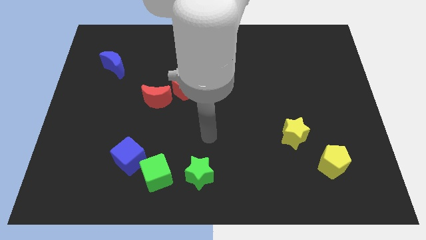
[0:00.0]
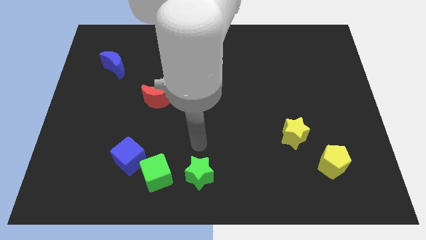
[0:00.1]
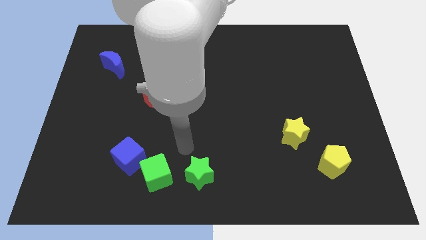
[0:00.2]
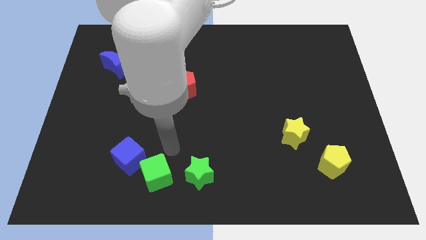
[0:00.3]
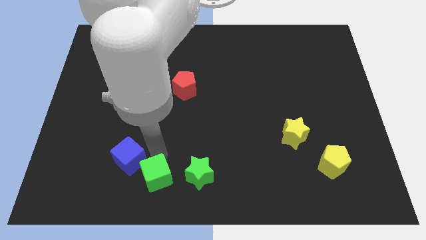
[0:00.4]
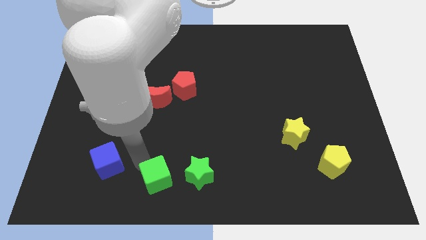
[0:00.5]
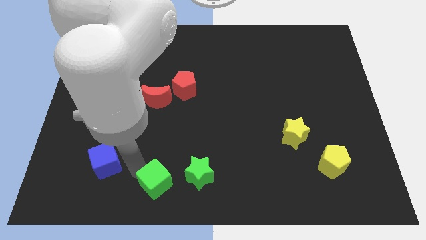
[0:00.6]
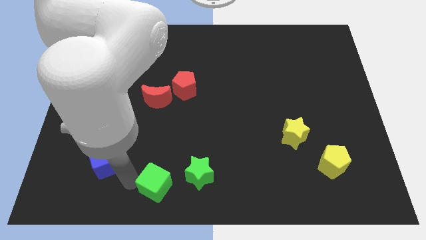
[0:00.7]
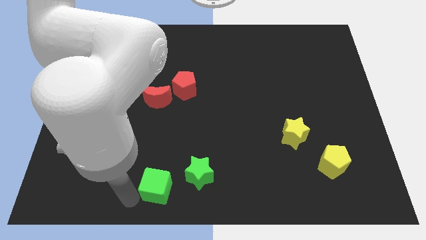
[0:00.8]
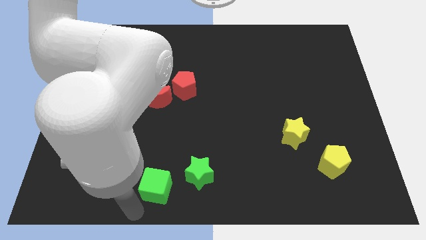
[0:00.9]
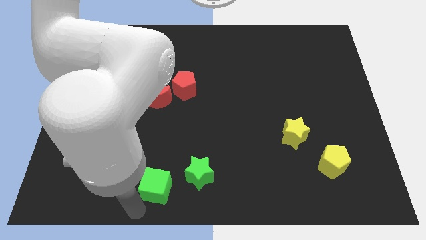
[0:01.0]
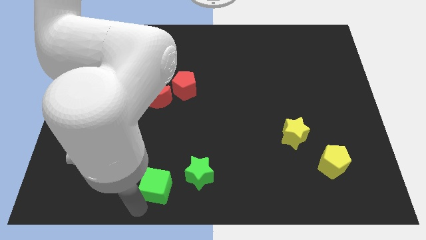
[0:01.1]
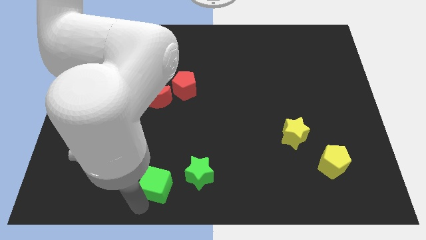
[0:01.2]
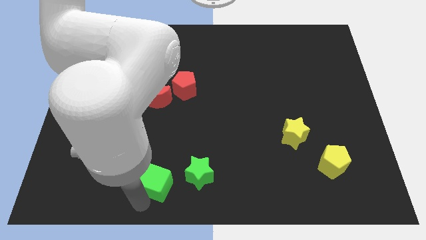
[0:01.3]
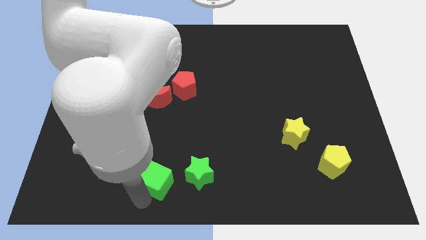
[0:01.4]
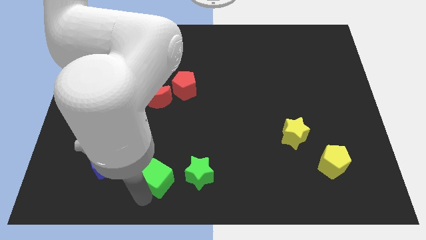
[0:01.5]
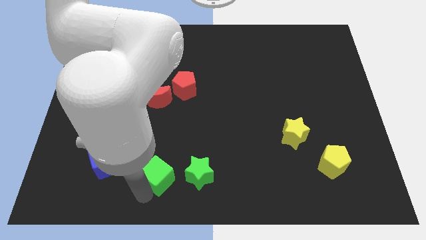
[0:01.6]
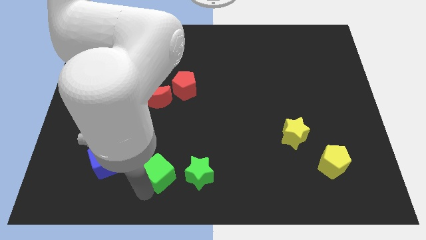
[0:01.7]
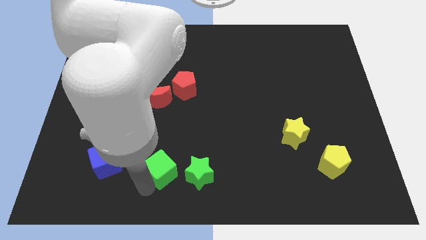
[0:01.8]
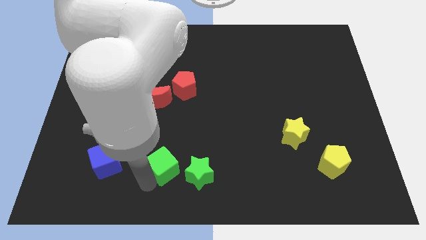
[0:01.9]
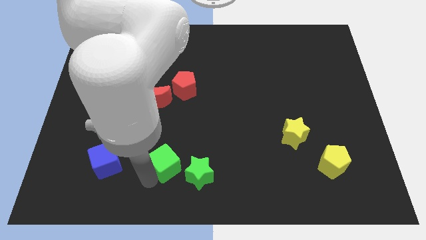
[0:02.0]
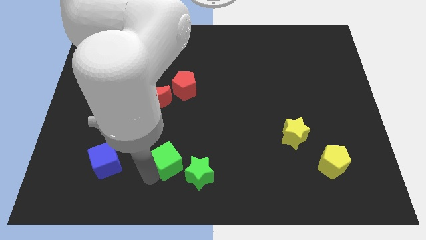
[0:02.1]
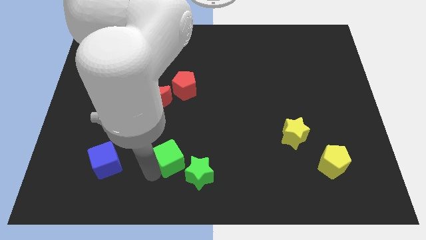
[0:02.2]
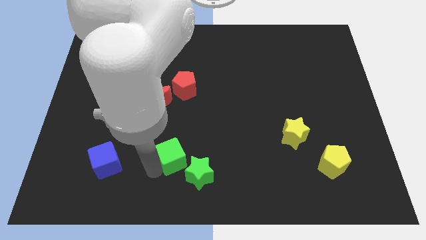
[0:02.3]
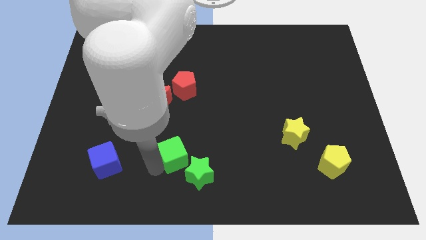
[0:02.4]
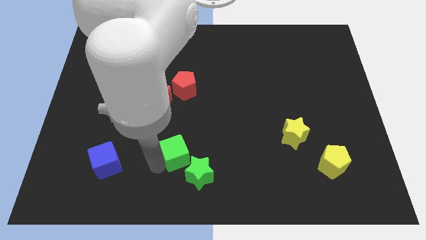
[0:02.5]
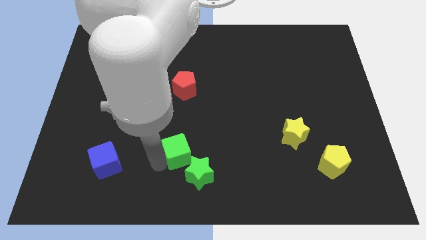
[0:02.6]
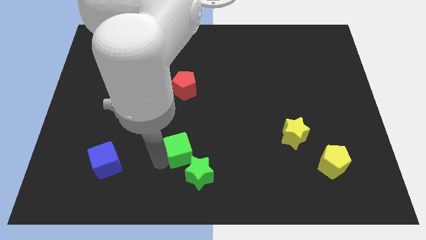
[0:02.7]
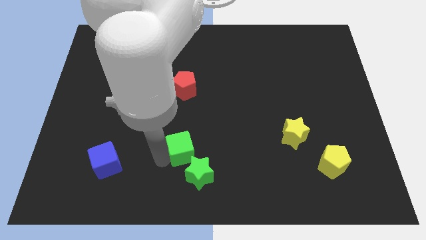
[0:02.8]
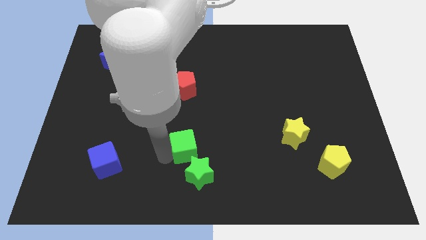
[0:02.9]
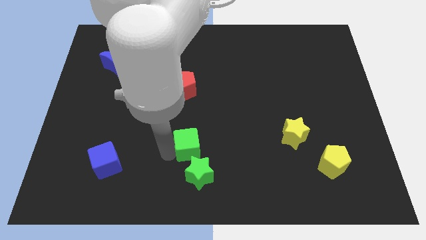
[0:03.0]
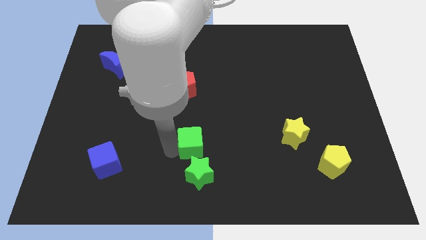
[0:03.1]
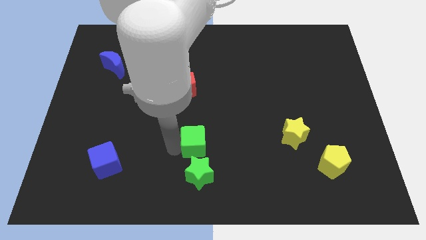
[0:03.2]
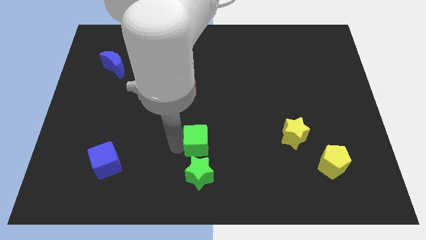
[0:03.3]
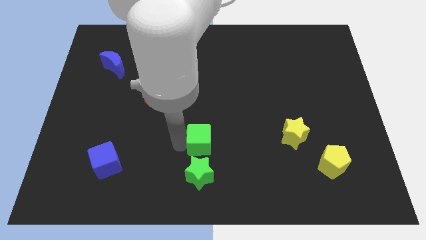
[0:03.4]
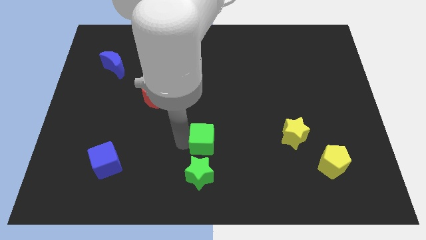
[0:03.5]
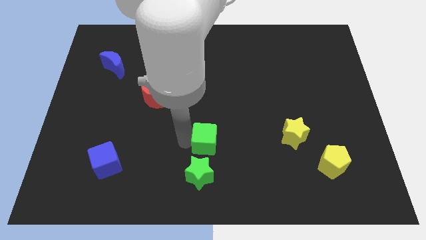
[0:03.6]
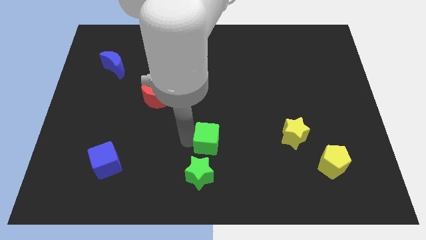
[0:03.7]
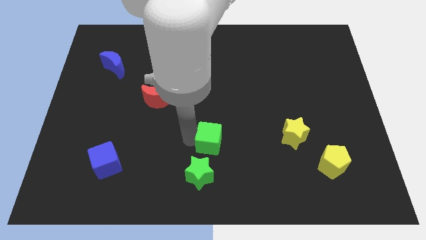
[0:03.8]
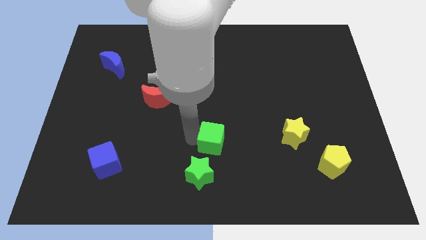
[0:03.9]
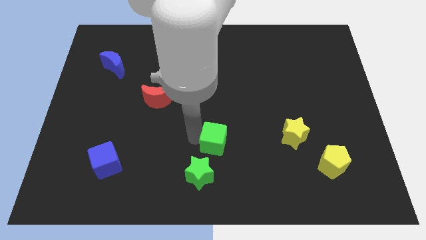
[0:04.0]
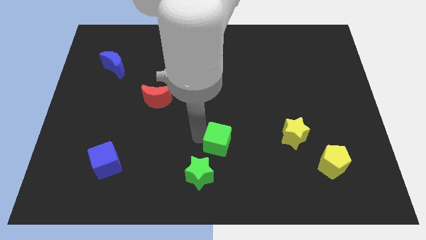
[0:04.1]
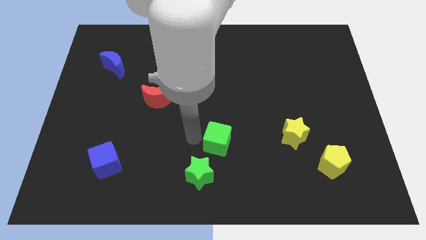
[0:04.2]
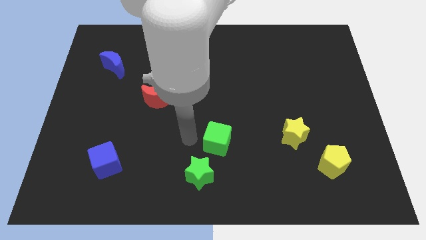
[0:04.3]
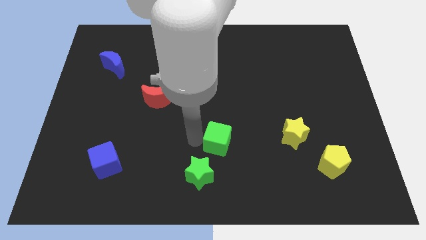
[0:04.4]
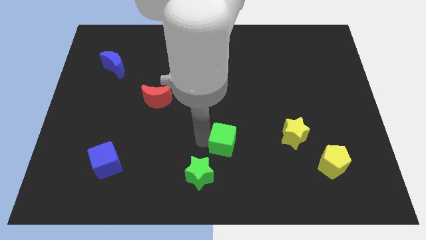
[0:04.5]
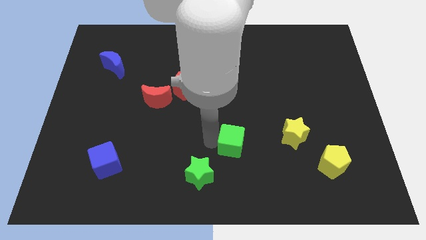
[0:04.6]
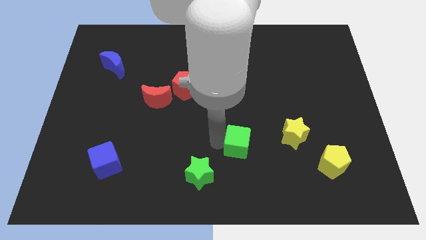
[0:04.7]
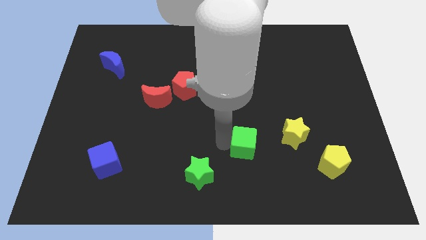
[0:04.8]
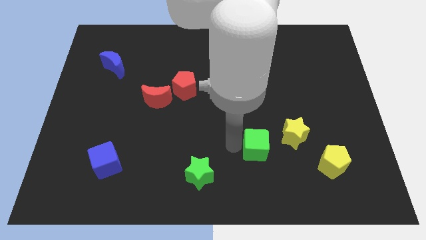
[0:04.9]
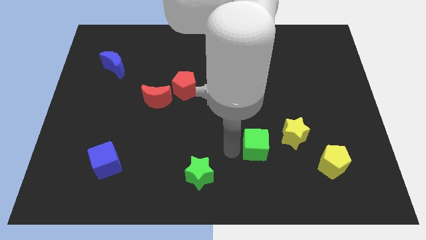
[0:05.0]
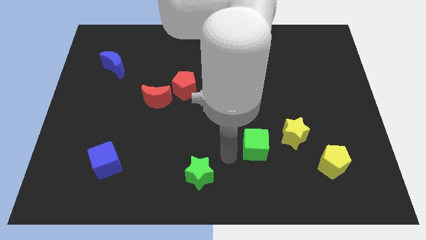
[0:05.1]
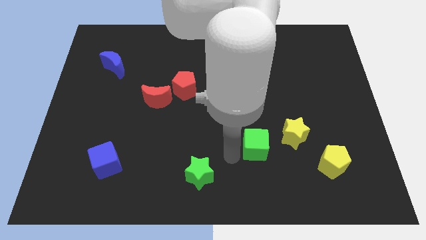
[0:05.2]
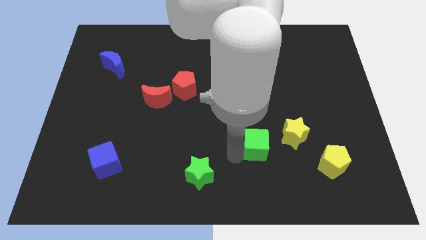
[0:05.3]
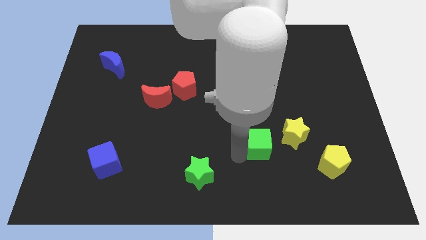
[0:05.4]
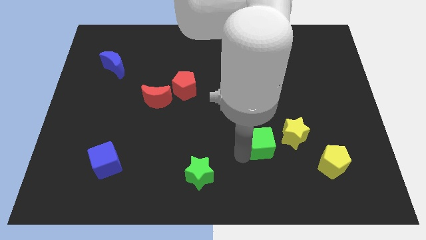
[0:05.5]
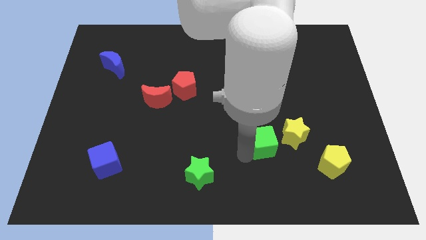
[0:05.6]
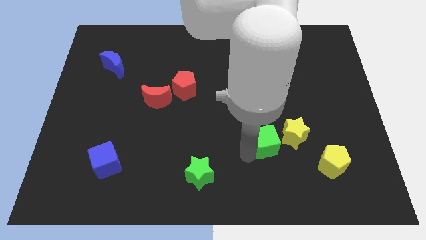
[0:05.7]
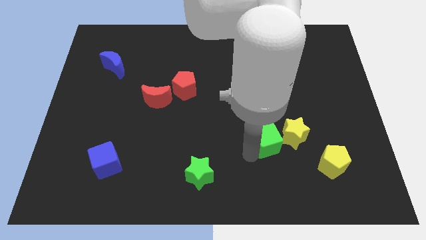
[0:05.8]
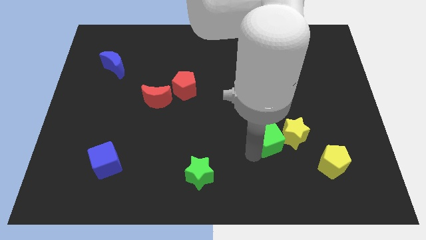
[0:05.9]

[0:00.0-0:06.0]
put the green cube close to the yellow star

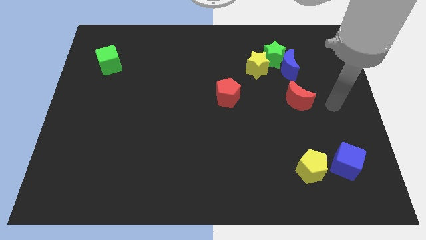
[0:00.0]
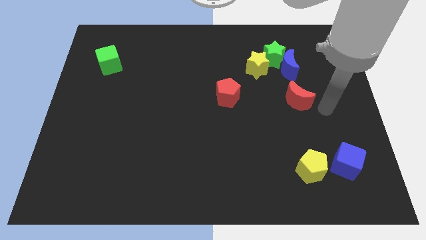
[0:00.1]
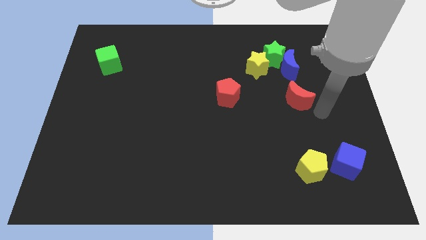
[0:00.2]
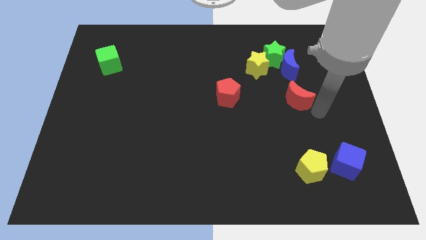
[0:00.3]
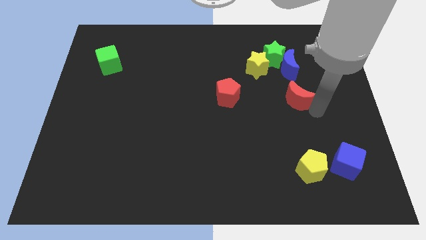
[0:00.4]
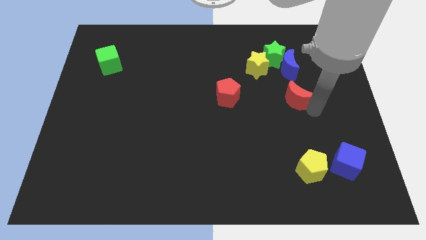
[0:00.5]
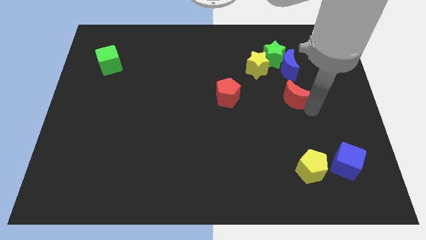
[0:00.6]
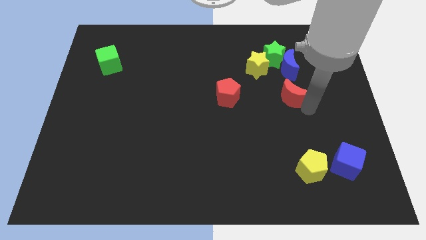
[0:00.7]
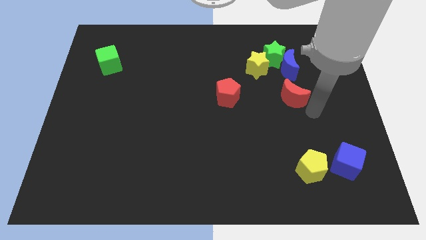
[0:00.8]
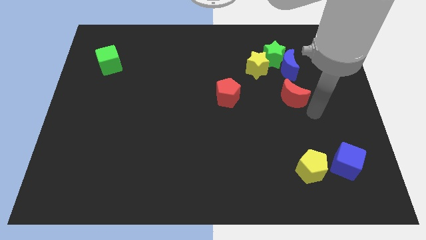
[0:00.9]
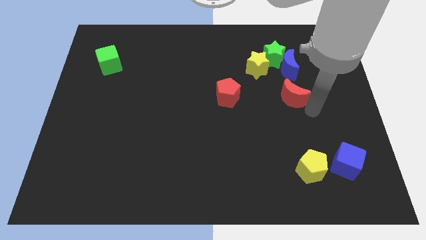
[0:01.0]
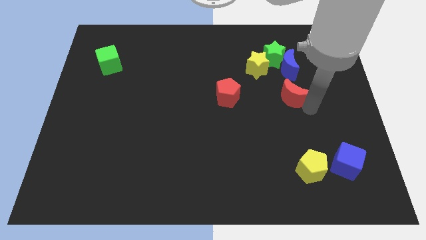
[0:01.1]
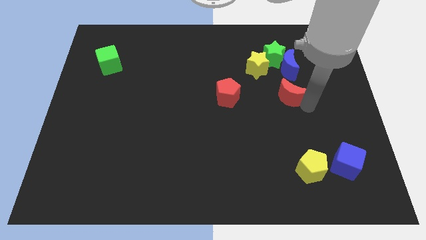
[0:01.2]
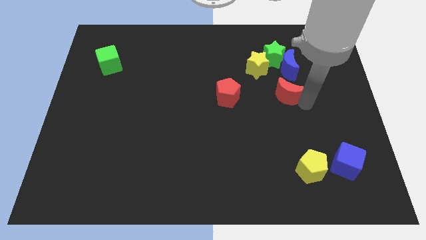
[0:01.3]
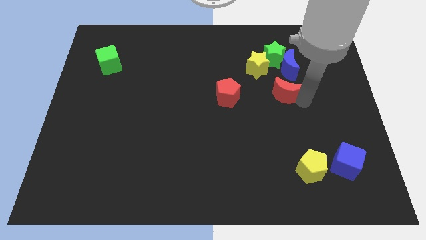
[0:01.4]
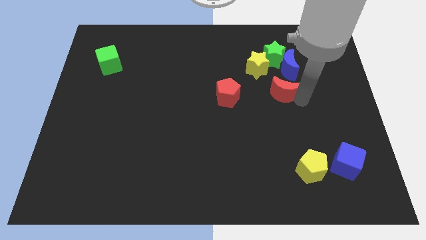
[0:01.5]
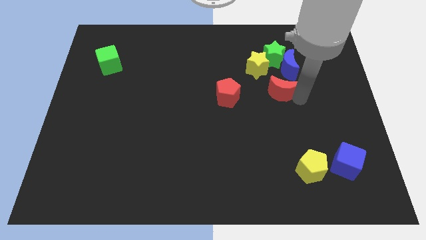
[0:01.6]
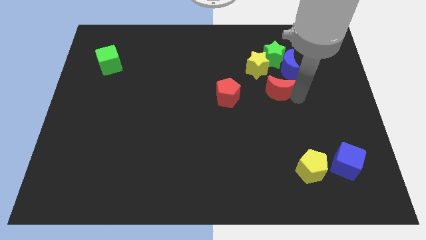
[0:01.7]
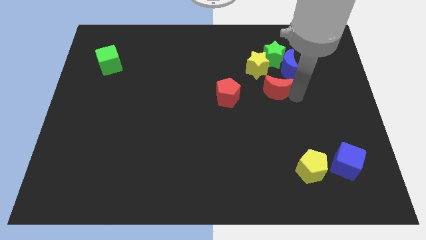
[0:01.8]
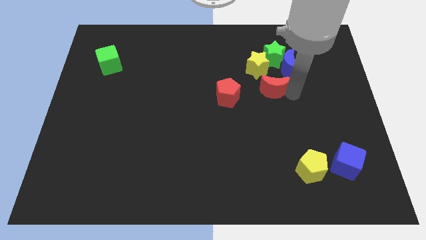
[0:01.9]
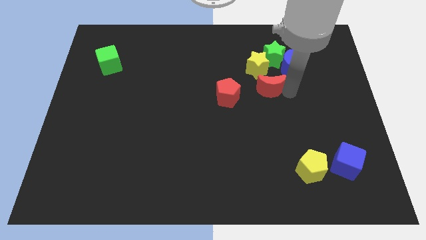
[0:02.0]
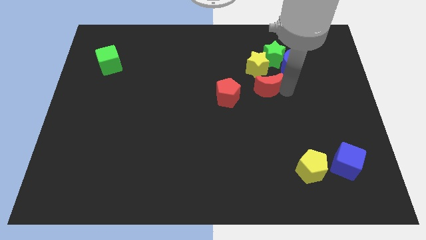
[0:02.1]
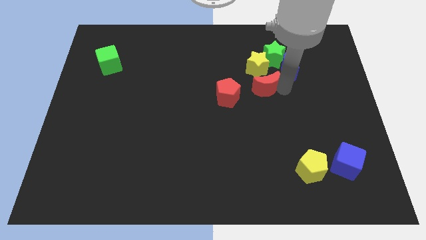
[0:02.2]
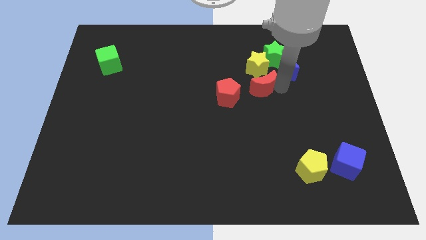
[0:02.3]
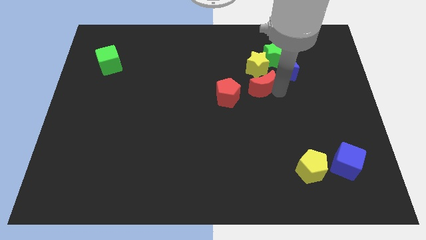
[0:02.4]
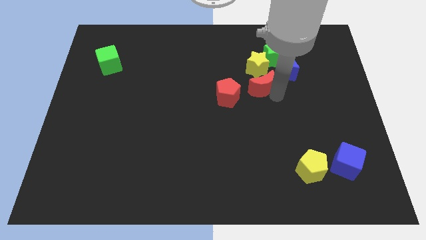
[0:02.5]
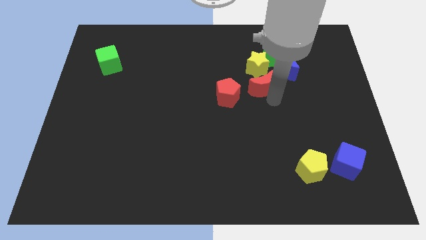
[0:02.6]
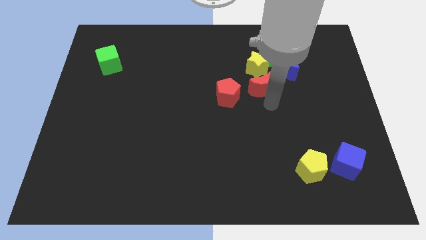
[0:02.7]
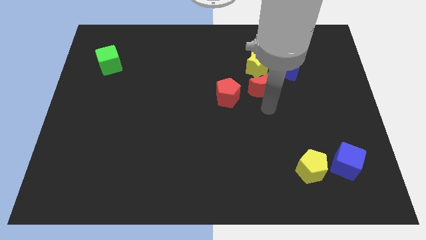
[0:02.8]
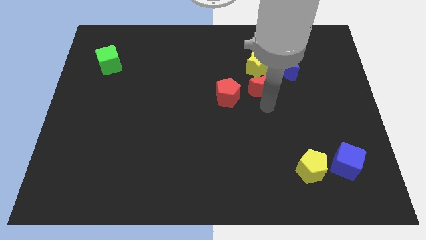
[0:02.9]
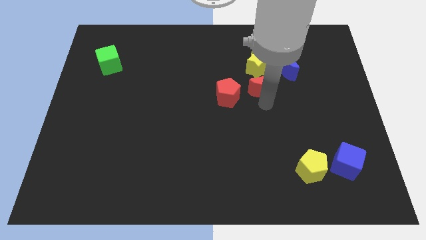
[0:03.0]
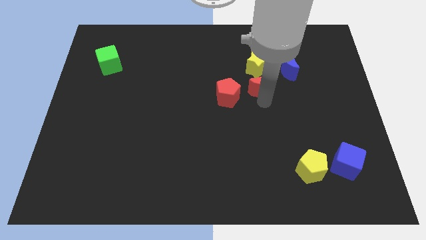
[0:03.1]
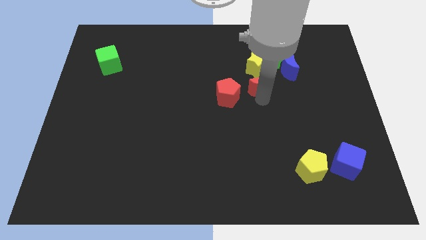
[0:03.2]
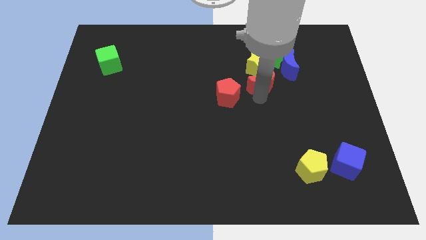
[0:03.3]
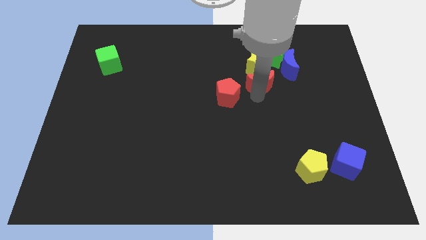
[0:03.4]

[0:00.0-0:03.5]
slide the red moon towards the yellow star
